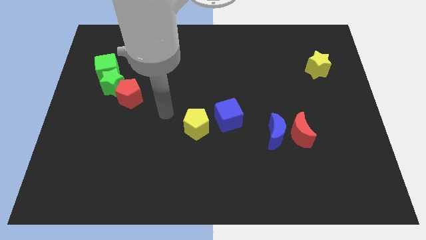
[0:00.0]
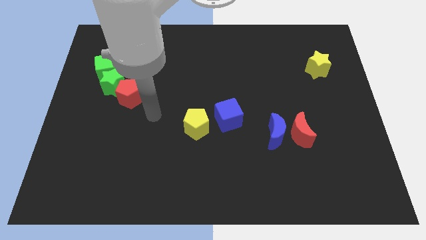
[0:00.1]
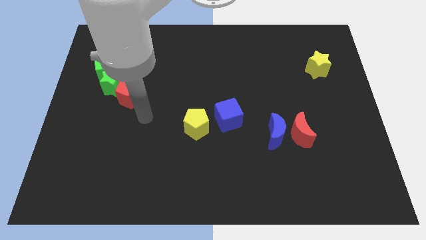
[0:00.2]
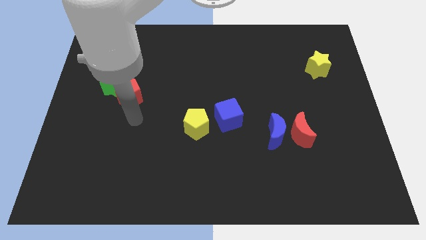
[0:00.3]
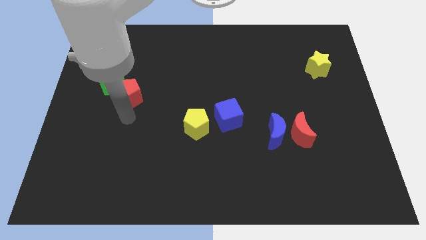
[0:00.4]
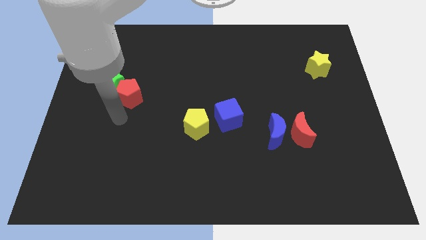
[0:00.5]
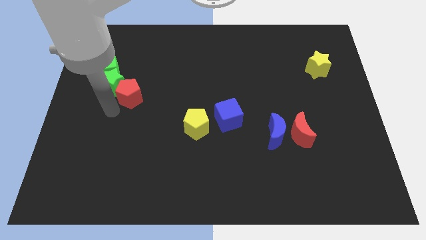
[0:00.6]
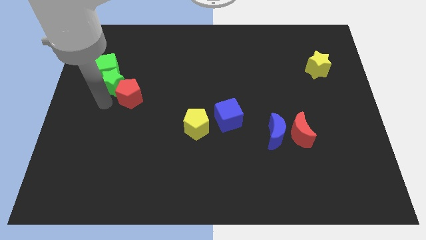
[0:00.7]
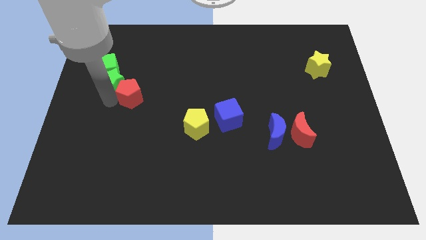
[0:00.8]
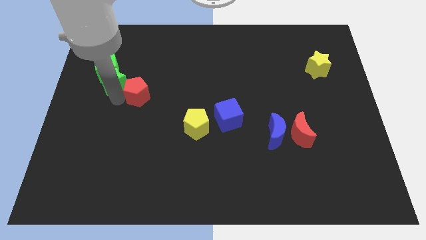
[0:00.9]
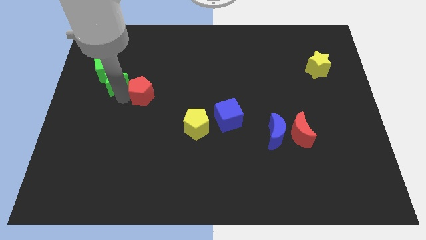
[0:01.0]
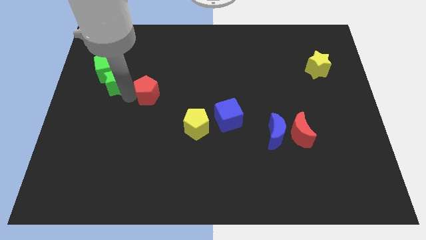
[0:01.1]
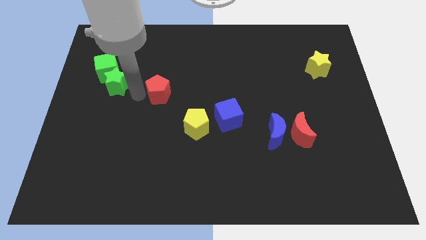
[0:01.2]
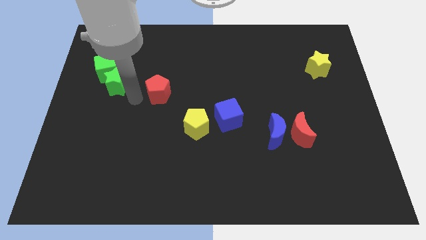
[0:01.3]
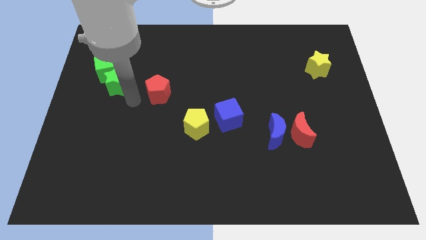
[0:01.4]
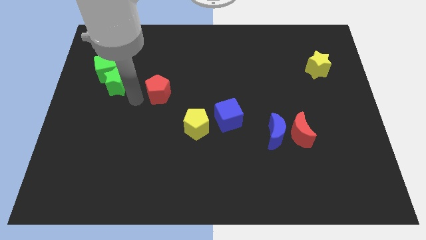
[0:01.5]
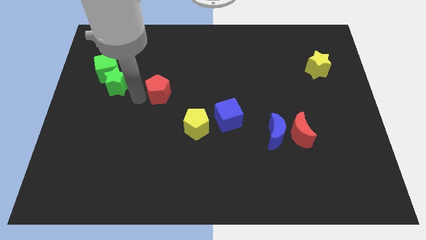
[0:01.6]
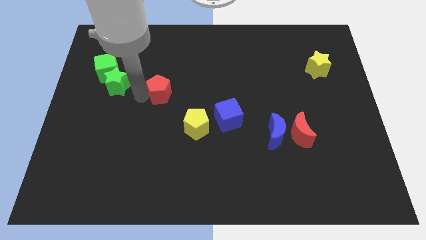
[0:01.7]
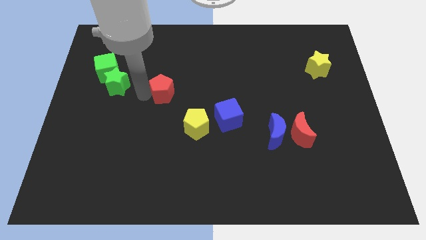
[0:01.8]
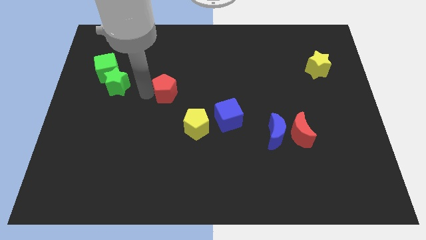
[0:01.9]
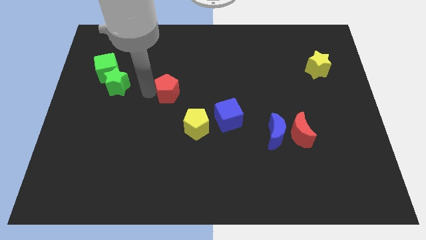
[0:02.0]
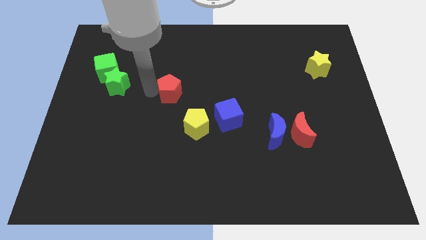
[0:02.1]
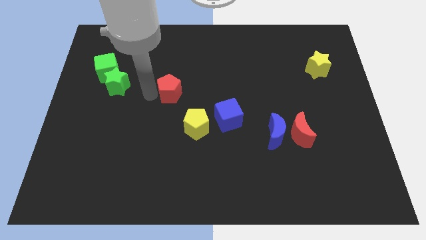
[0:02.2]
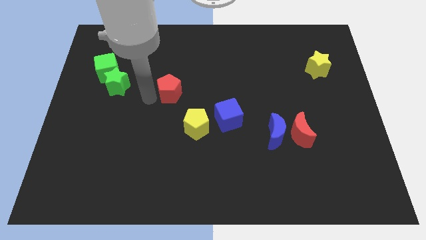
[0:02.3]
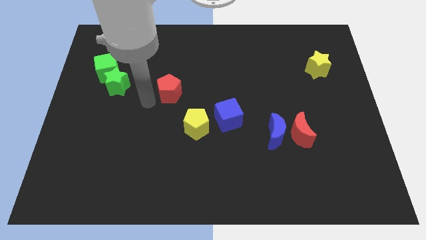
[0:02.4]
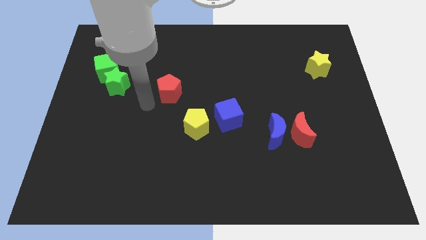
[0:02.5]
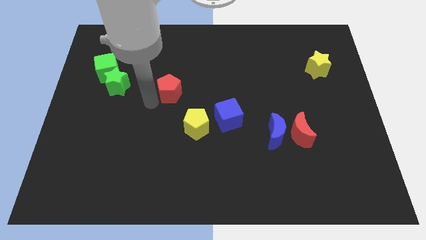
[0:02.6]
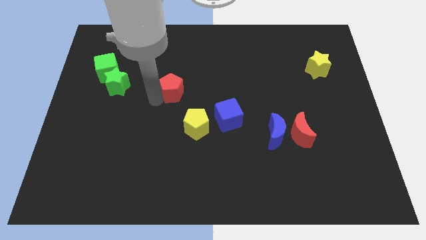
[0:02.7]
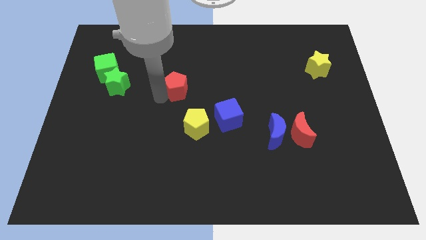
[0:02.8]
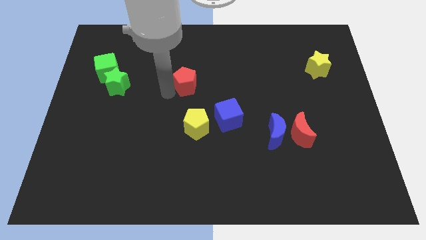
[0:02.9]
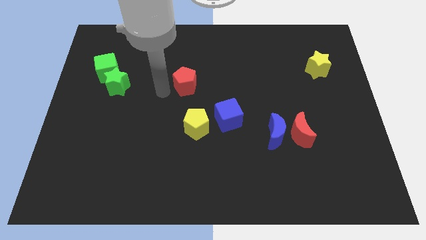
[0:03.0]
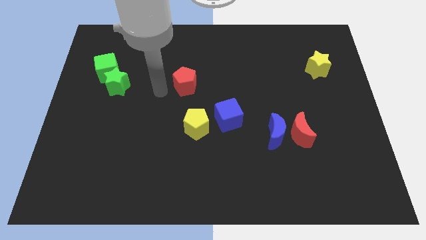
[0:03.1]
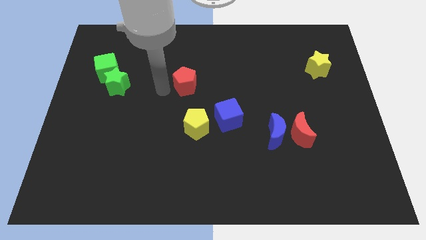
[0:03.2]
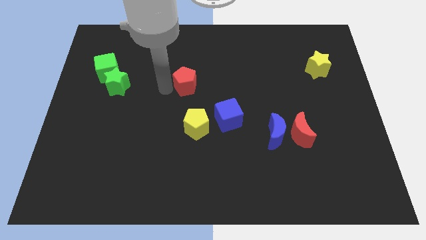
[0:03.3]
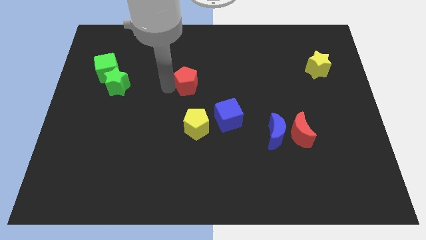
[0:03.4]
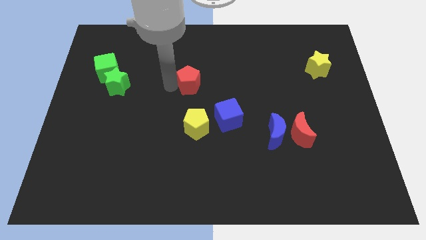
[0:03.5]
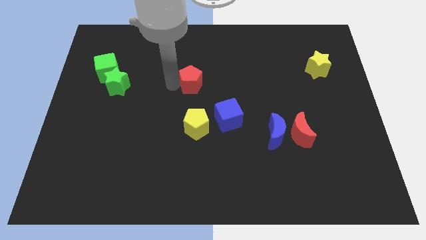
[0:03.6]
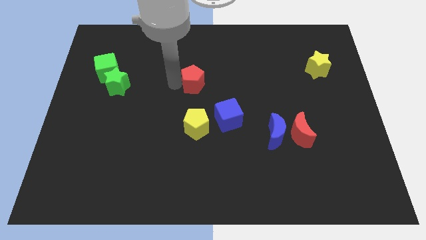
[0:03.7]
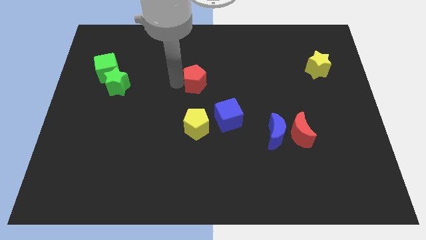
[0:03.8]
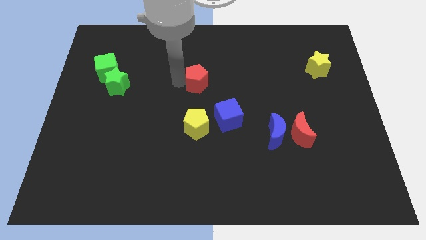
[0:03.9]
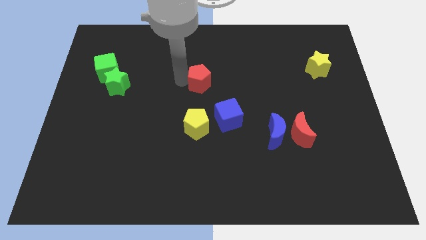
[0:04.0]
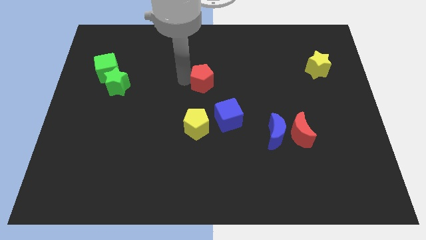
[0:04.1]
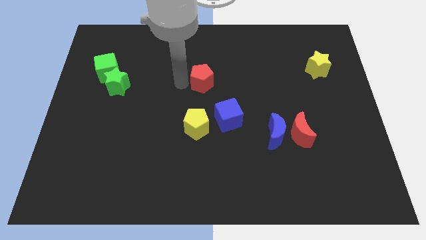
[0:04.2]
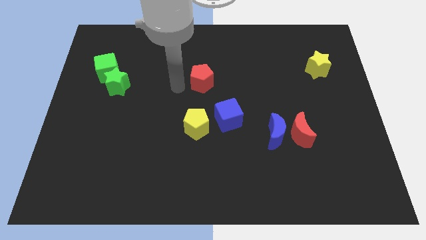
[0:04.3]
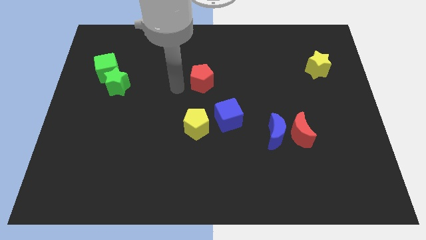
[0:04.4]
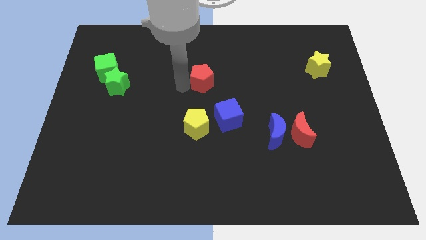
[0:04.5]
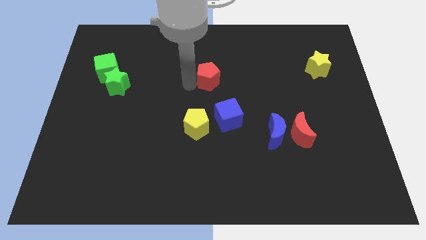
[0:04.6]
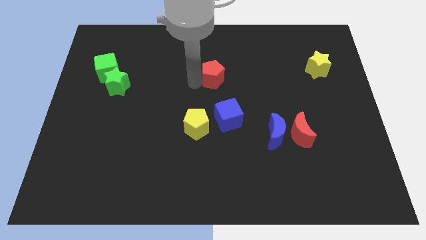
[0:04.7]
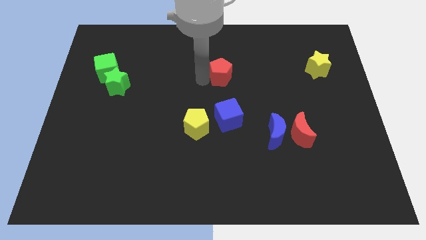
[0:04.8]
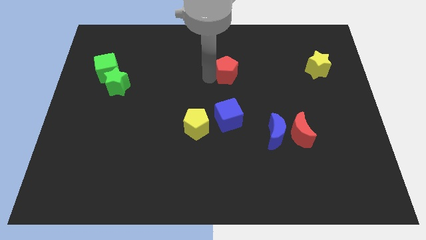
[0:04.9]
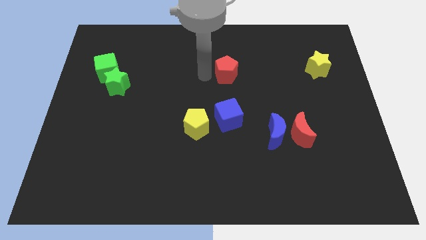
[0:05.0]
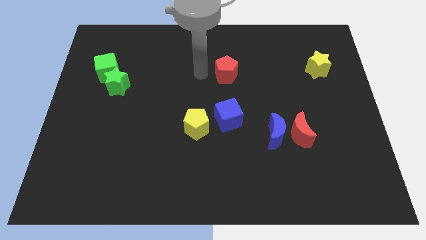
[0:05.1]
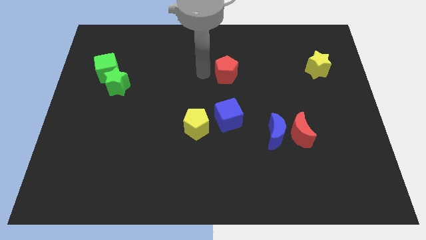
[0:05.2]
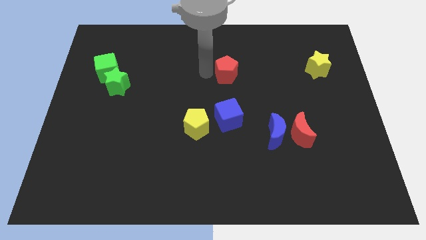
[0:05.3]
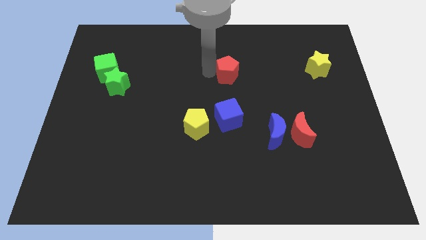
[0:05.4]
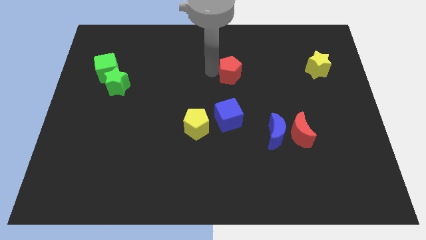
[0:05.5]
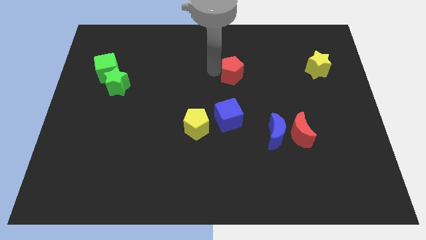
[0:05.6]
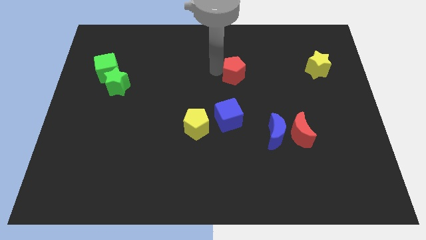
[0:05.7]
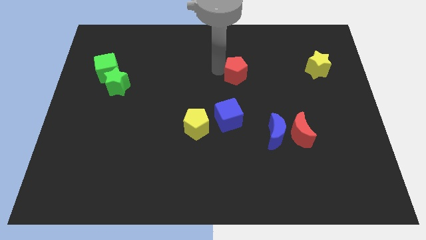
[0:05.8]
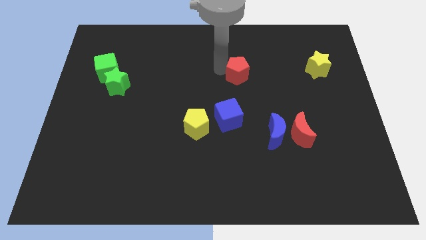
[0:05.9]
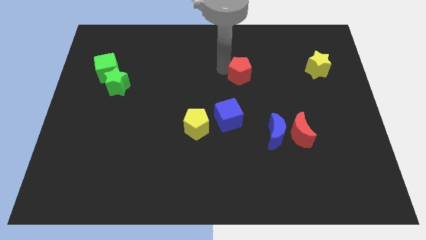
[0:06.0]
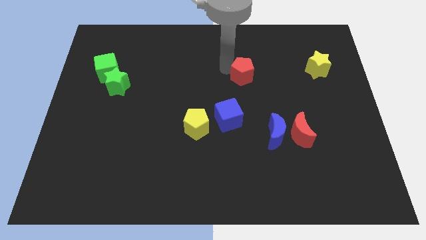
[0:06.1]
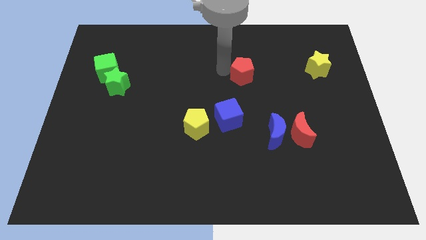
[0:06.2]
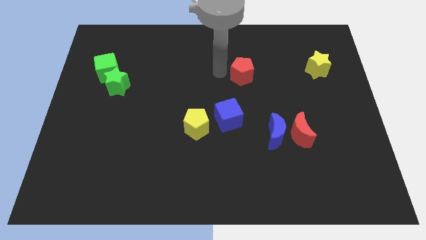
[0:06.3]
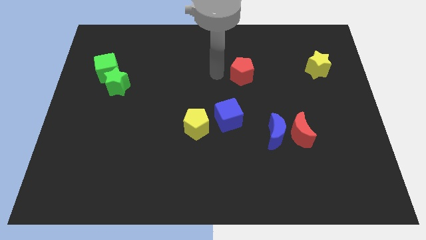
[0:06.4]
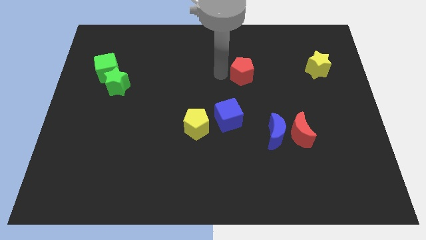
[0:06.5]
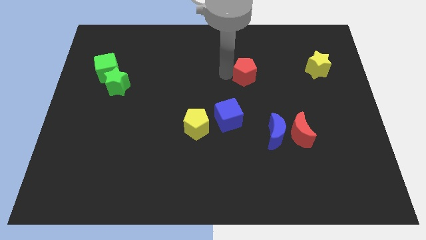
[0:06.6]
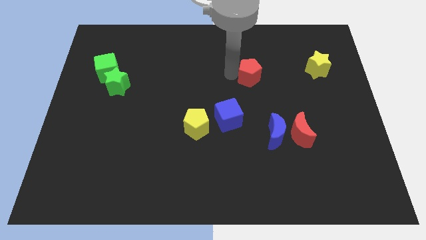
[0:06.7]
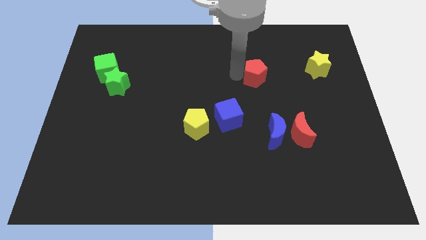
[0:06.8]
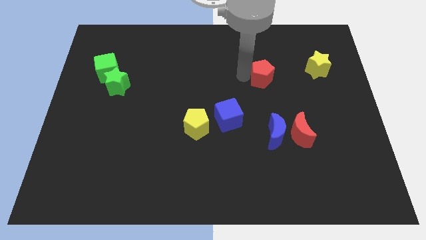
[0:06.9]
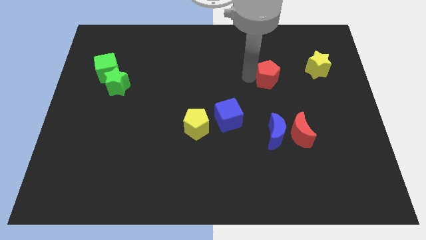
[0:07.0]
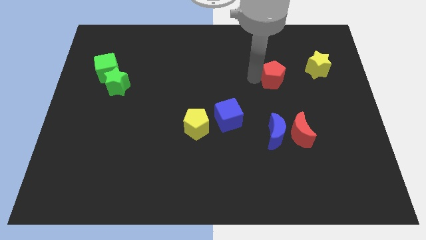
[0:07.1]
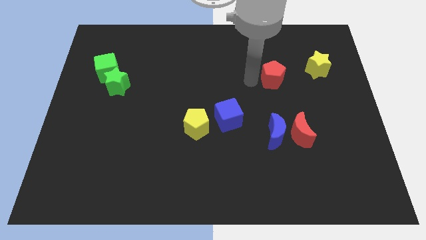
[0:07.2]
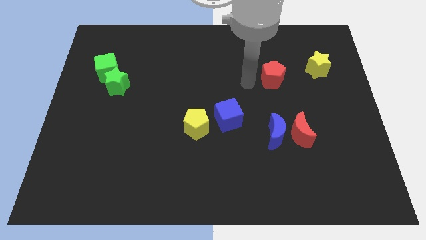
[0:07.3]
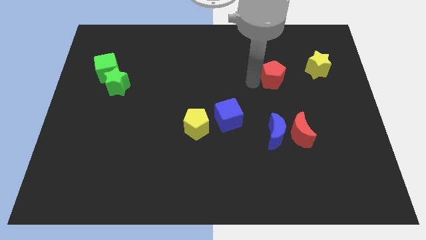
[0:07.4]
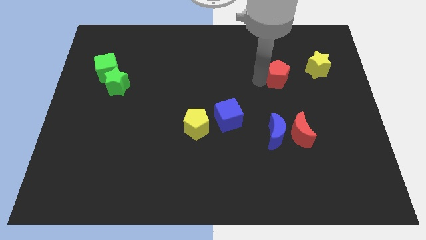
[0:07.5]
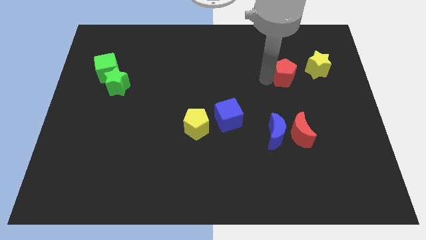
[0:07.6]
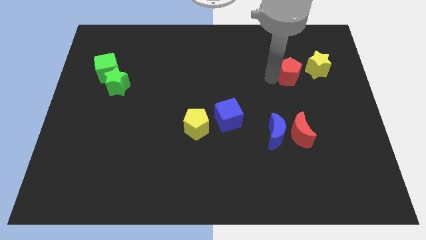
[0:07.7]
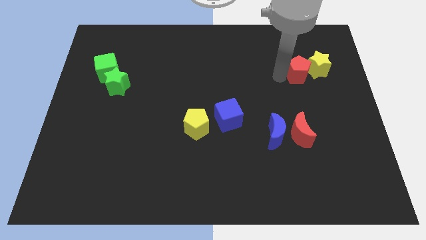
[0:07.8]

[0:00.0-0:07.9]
push the red pentagon next to the yellow star
